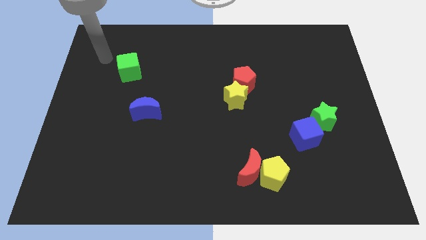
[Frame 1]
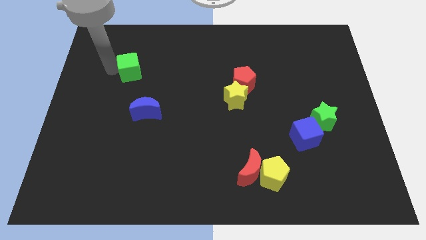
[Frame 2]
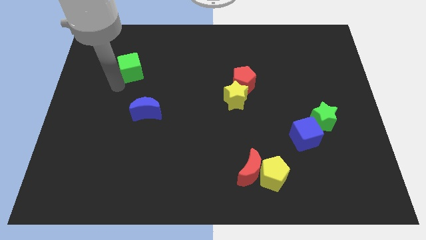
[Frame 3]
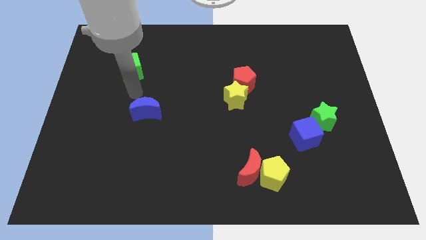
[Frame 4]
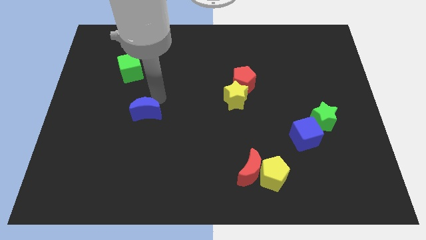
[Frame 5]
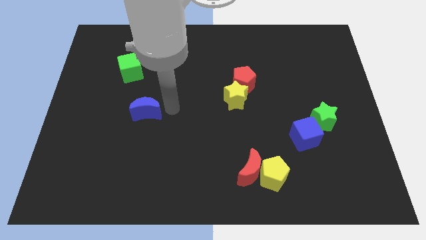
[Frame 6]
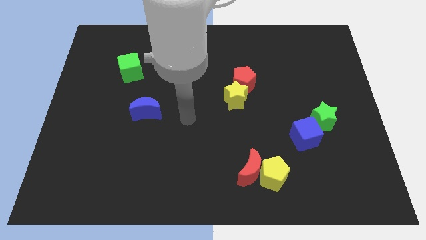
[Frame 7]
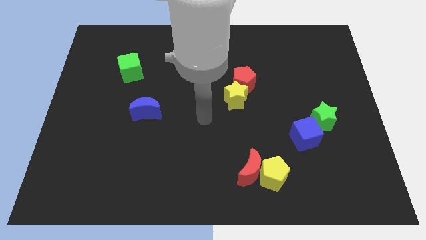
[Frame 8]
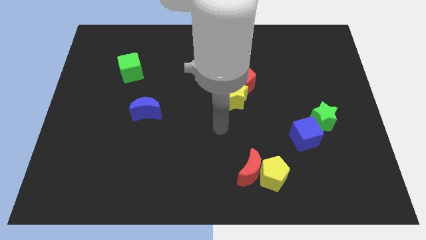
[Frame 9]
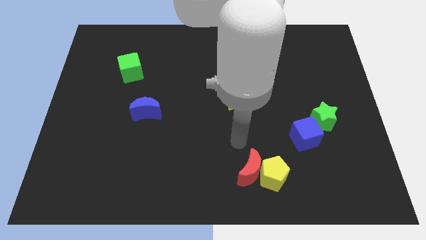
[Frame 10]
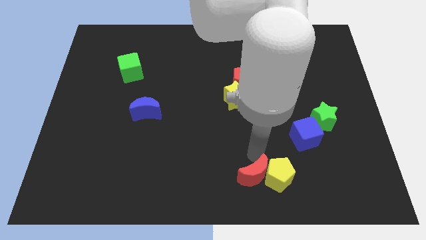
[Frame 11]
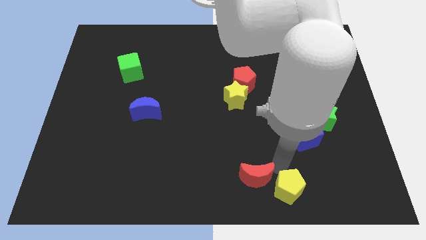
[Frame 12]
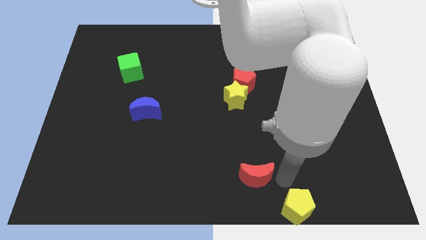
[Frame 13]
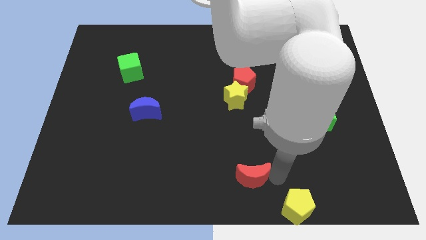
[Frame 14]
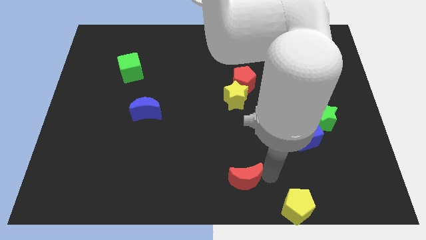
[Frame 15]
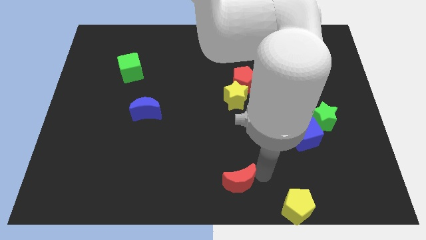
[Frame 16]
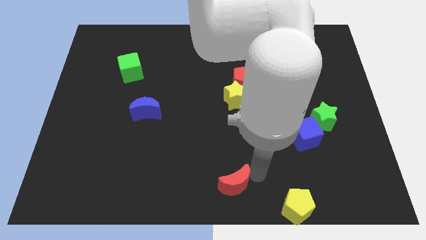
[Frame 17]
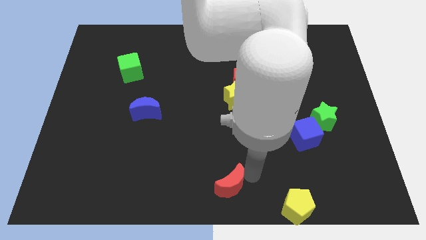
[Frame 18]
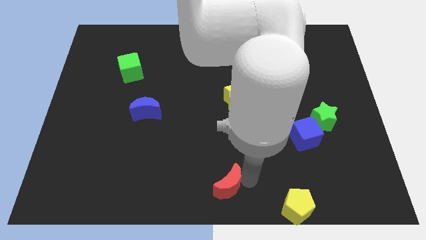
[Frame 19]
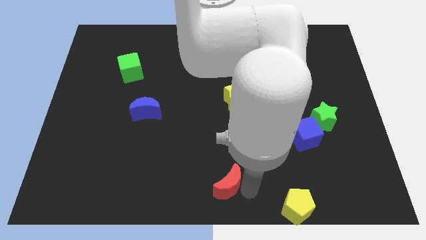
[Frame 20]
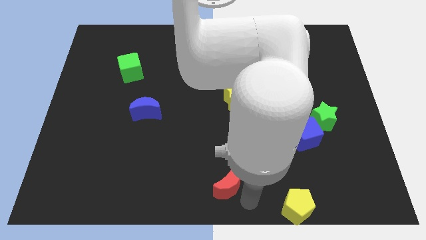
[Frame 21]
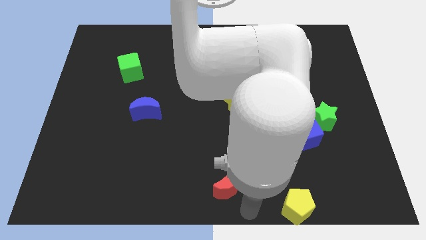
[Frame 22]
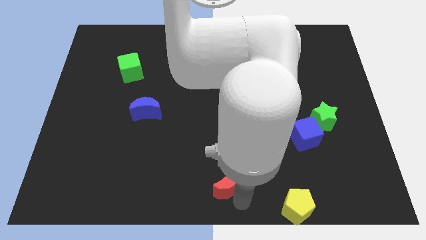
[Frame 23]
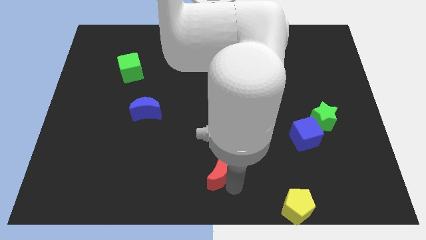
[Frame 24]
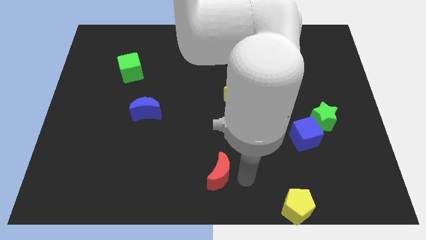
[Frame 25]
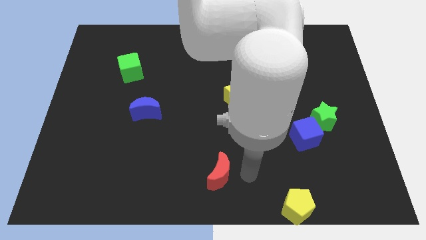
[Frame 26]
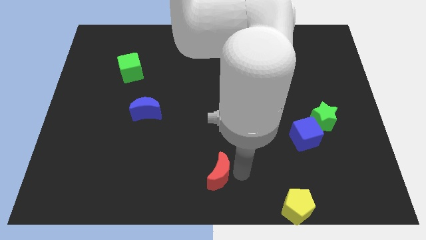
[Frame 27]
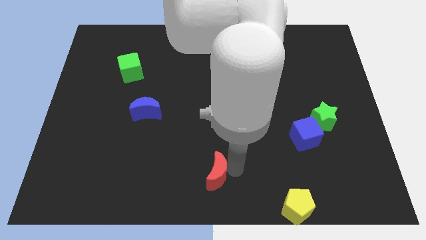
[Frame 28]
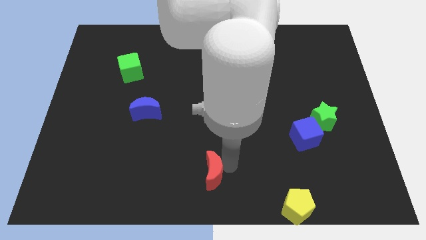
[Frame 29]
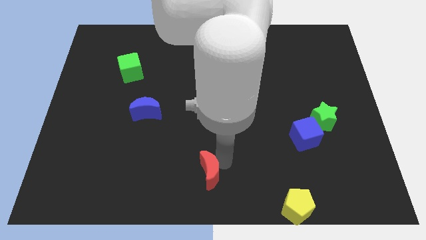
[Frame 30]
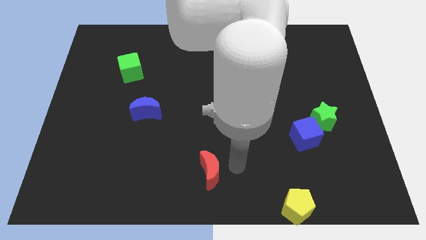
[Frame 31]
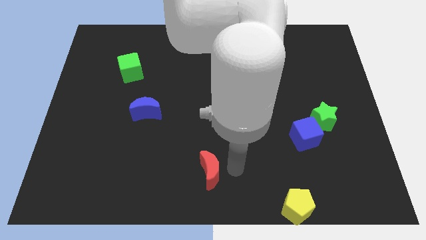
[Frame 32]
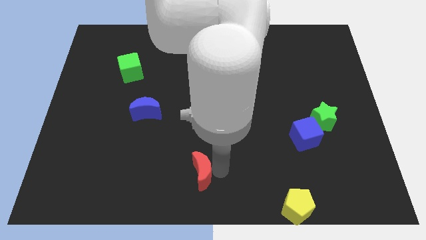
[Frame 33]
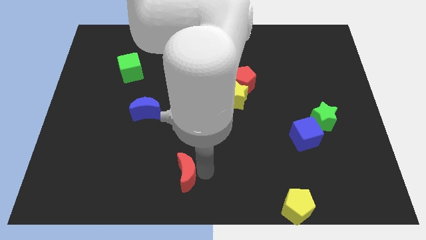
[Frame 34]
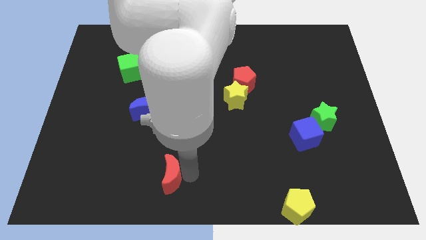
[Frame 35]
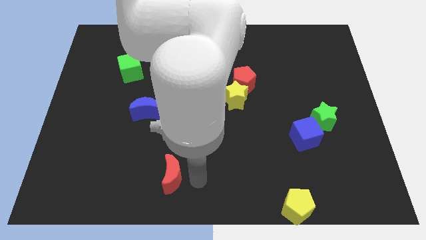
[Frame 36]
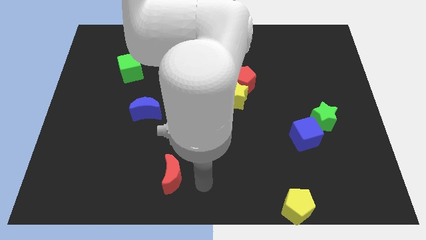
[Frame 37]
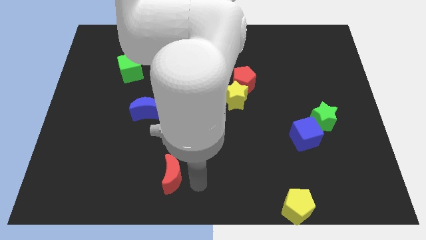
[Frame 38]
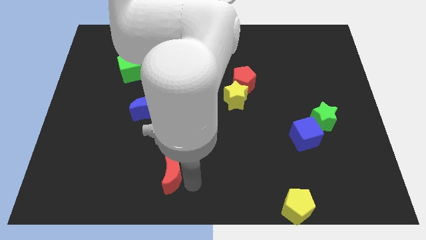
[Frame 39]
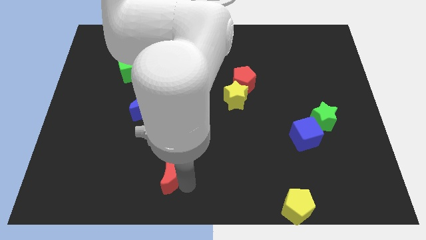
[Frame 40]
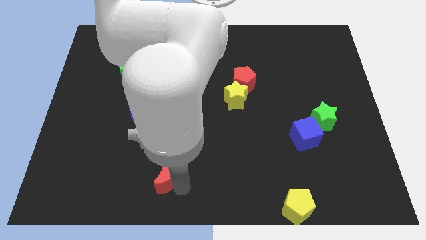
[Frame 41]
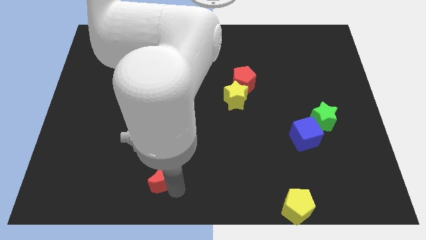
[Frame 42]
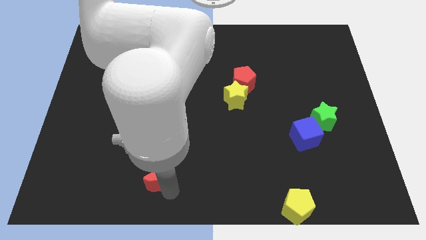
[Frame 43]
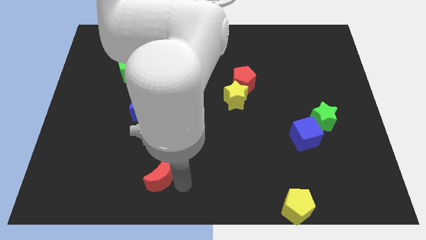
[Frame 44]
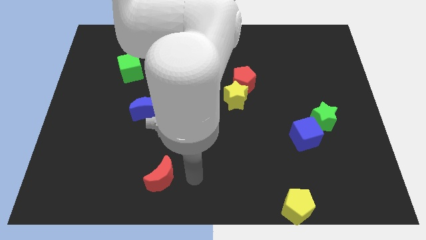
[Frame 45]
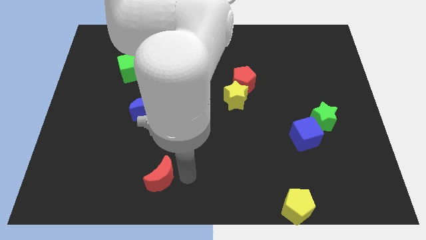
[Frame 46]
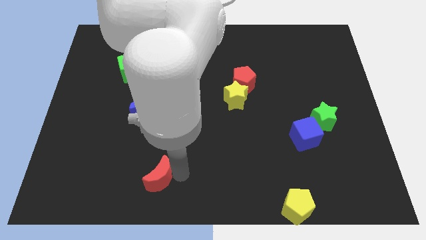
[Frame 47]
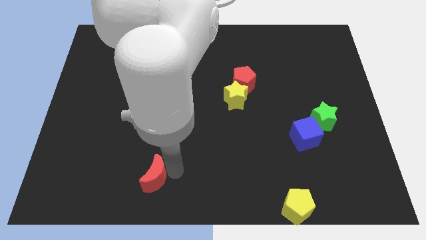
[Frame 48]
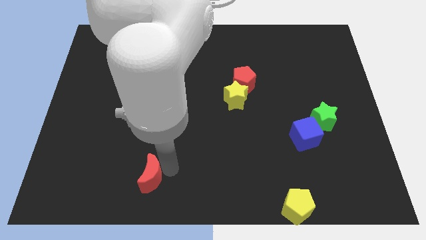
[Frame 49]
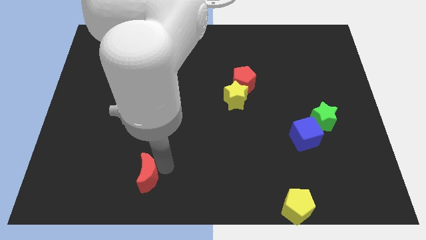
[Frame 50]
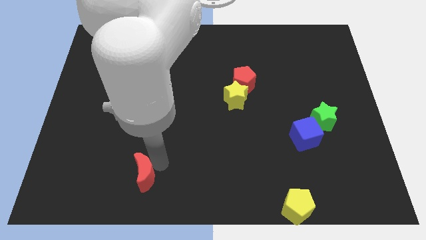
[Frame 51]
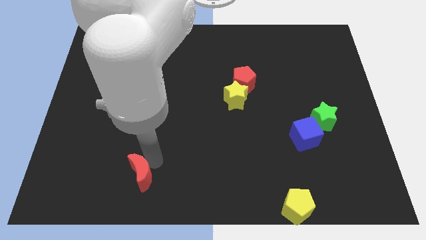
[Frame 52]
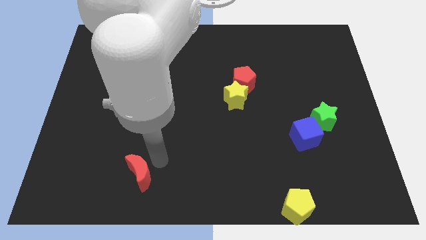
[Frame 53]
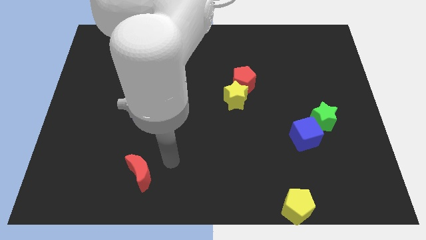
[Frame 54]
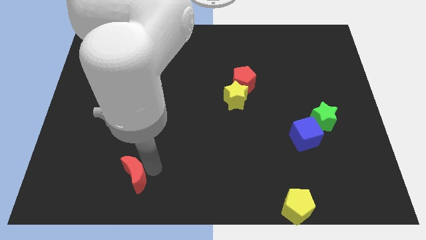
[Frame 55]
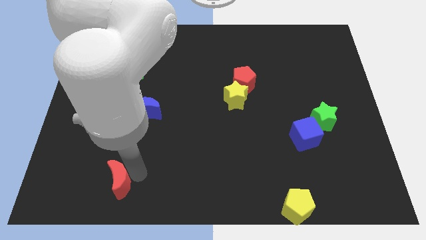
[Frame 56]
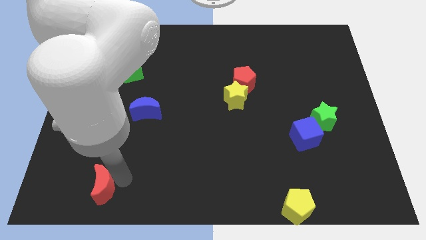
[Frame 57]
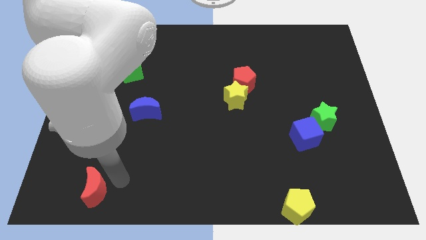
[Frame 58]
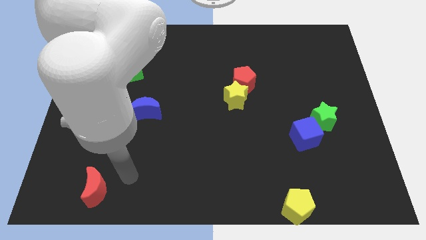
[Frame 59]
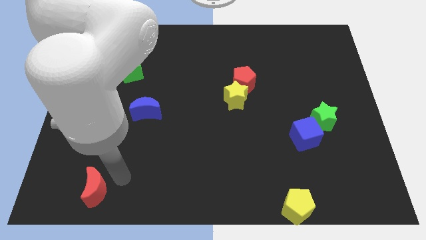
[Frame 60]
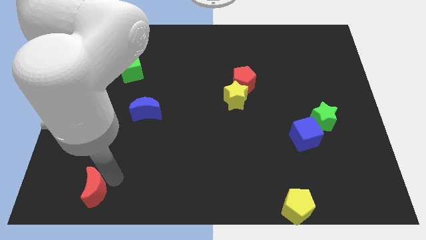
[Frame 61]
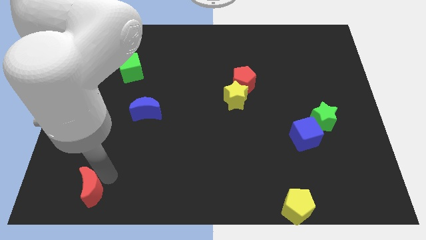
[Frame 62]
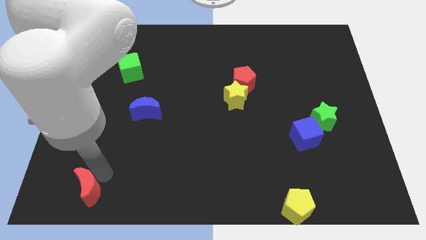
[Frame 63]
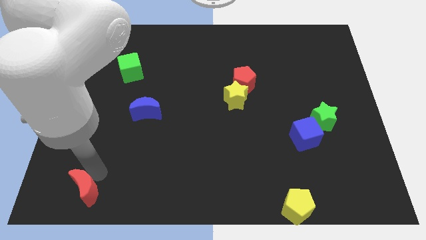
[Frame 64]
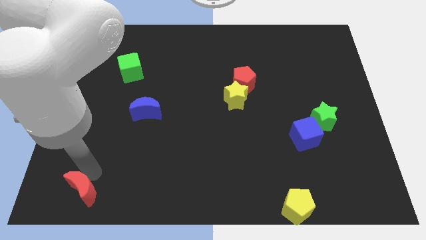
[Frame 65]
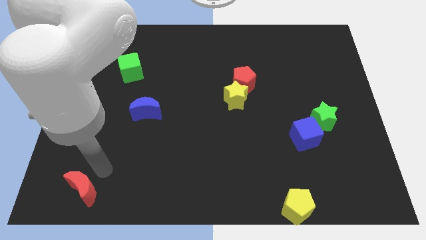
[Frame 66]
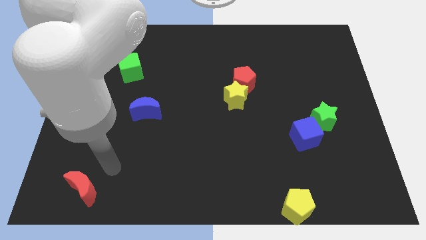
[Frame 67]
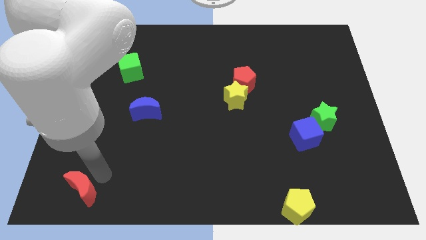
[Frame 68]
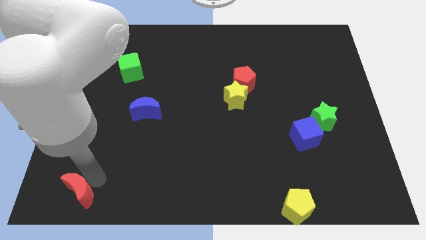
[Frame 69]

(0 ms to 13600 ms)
put the red moon to the lower left corner
